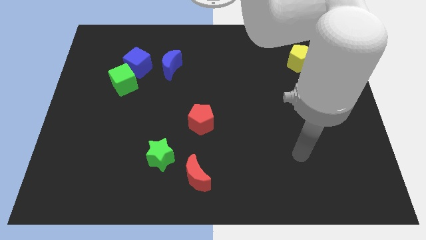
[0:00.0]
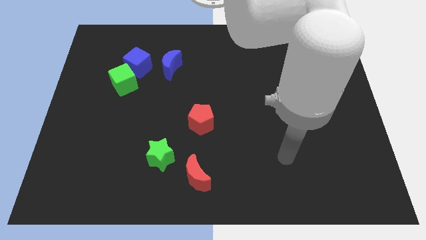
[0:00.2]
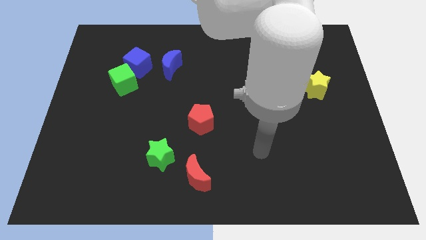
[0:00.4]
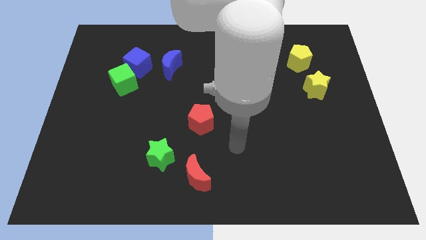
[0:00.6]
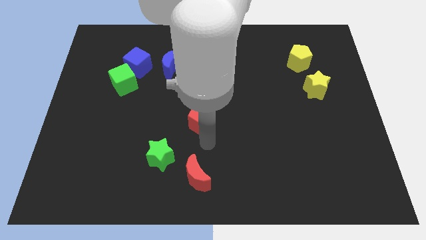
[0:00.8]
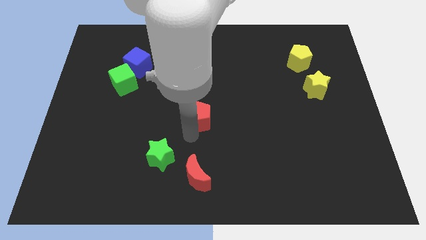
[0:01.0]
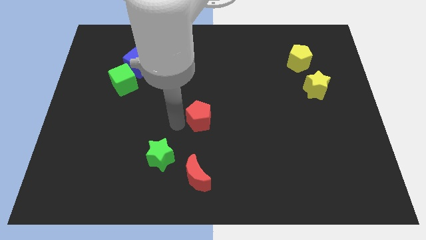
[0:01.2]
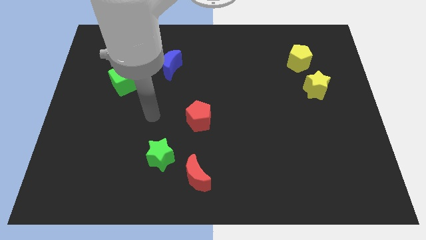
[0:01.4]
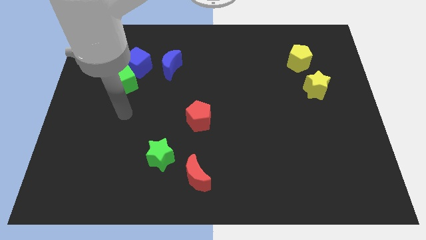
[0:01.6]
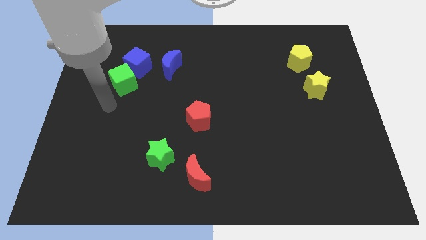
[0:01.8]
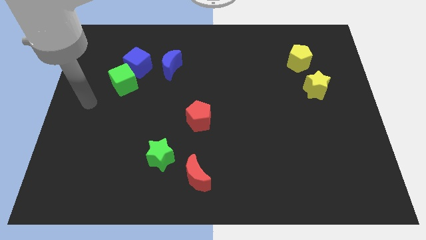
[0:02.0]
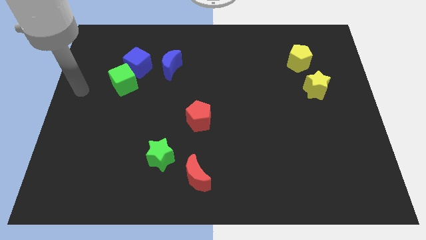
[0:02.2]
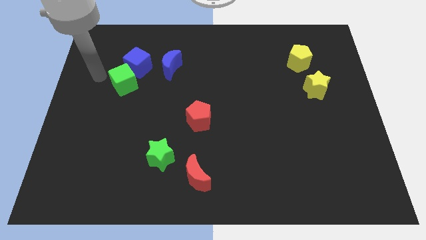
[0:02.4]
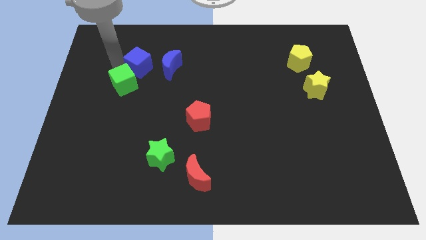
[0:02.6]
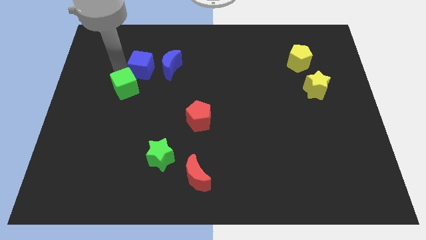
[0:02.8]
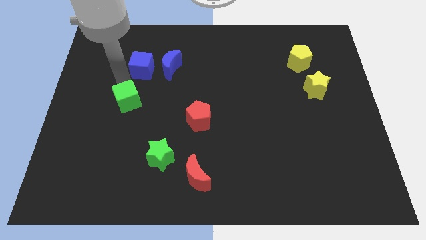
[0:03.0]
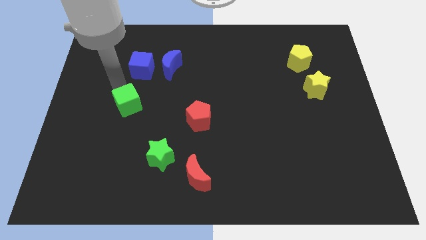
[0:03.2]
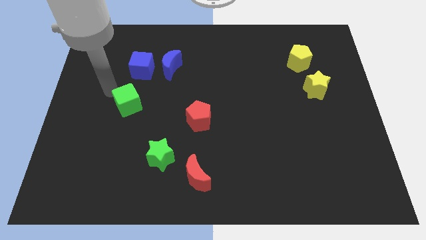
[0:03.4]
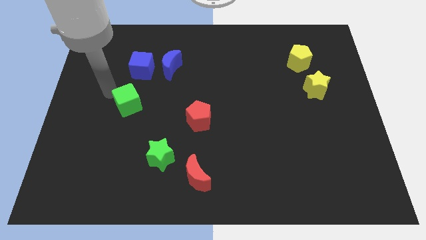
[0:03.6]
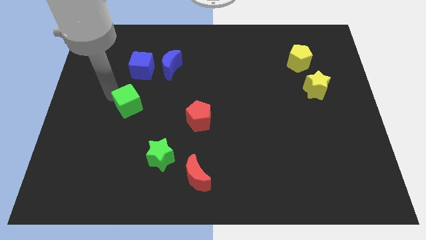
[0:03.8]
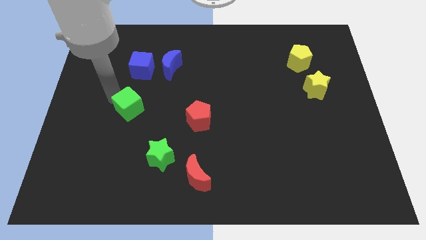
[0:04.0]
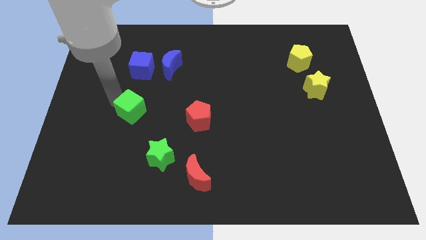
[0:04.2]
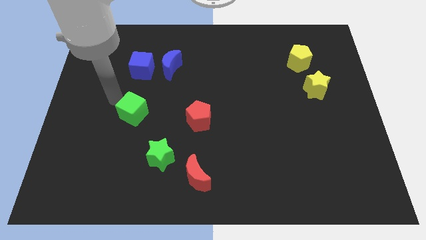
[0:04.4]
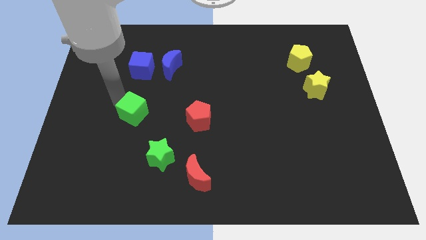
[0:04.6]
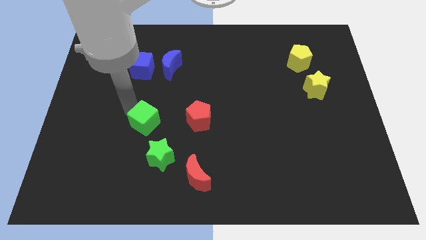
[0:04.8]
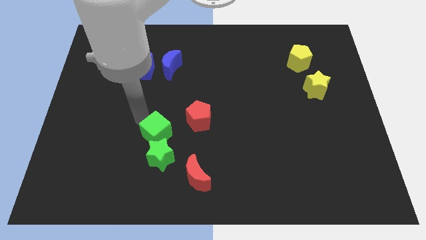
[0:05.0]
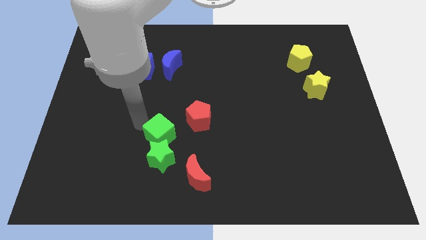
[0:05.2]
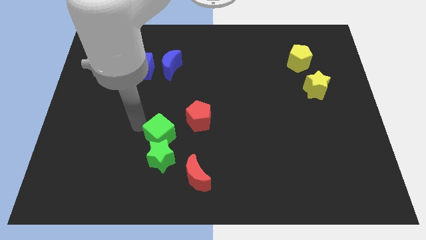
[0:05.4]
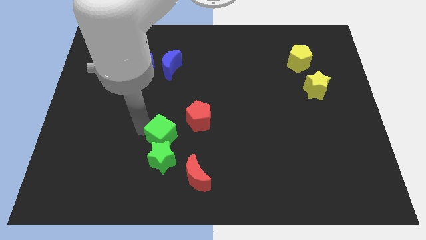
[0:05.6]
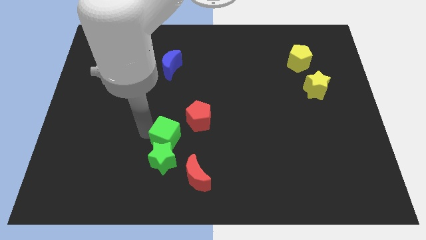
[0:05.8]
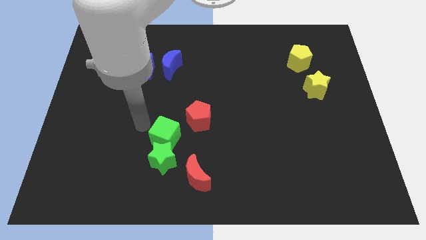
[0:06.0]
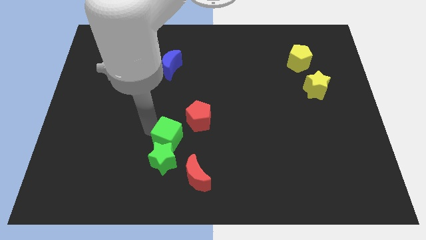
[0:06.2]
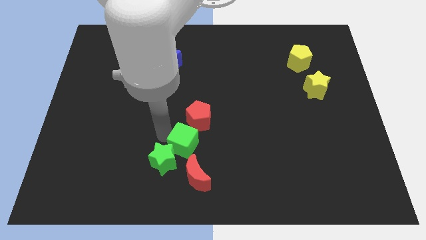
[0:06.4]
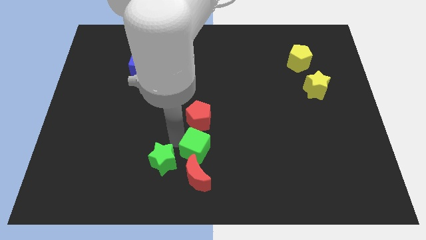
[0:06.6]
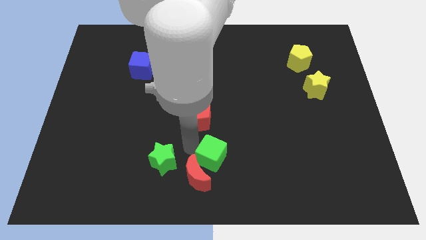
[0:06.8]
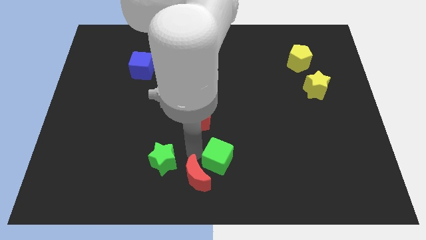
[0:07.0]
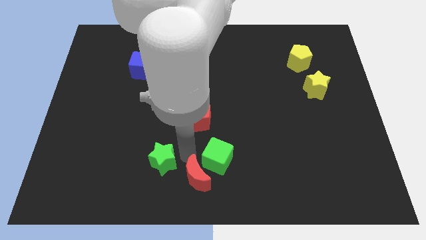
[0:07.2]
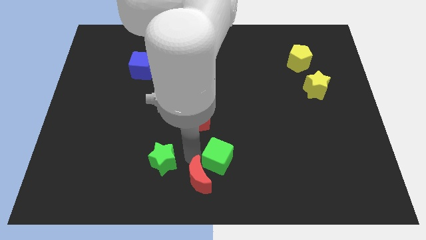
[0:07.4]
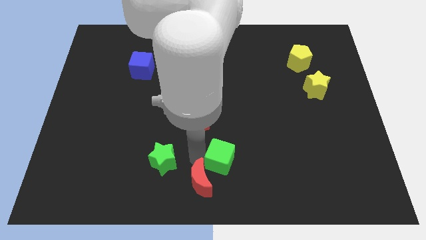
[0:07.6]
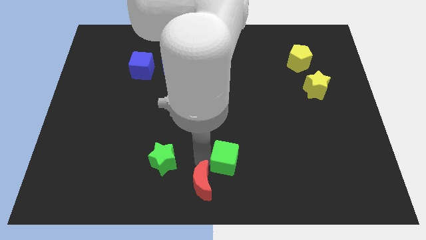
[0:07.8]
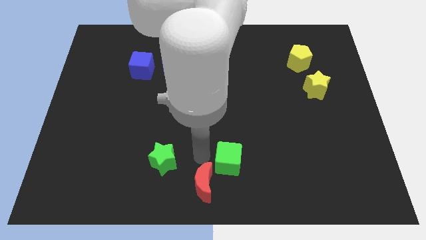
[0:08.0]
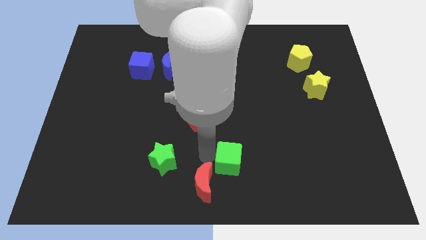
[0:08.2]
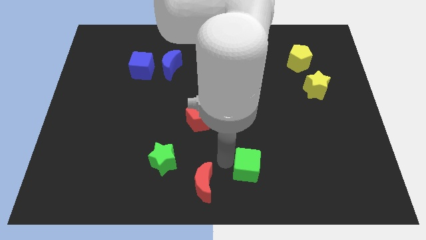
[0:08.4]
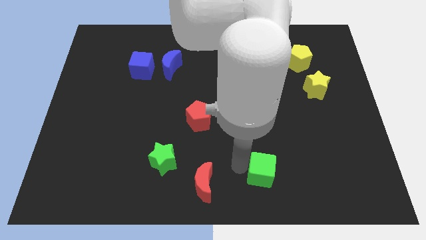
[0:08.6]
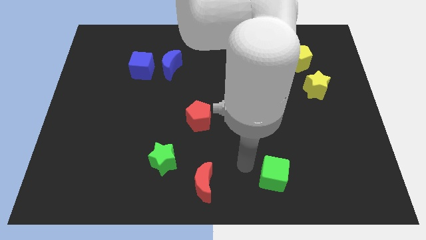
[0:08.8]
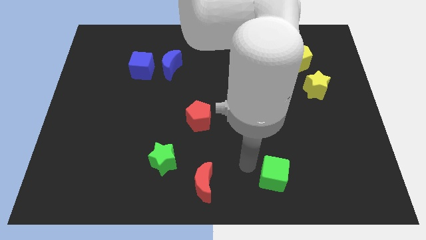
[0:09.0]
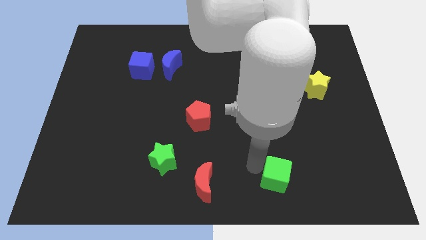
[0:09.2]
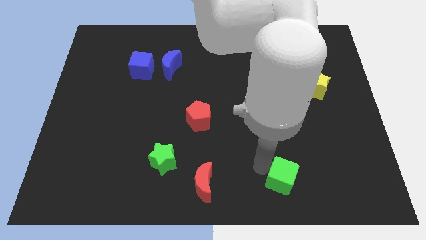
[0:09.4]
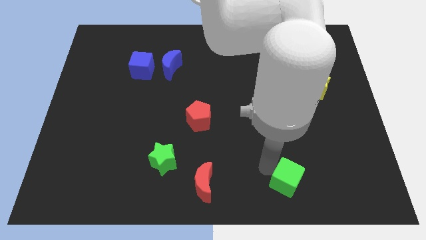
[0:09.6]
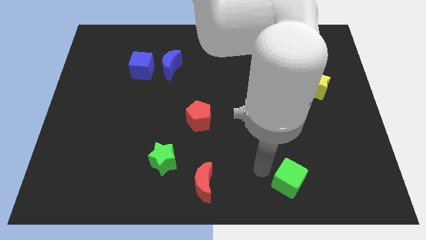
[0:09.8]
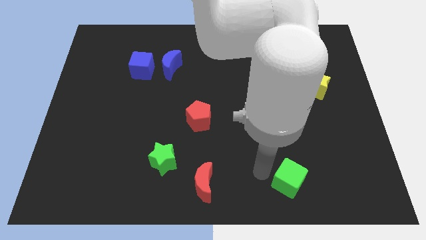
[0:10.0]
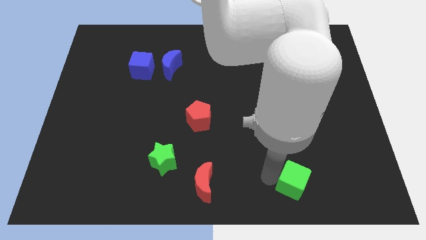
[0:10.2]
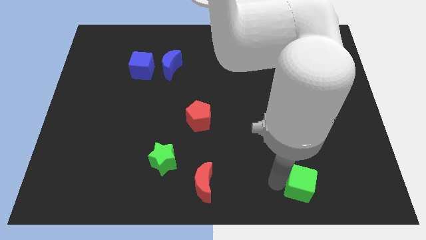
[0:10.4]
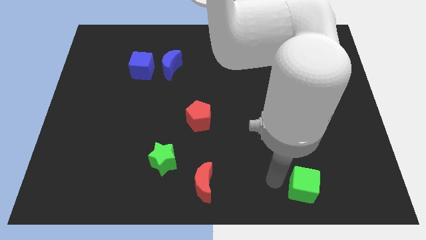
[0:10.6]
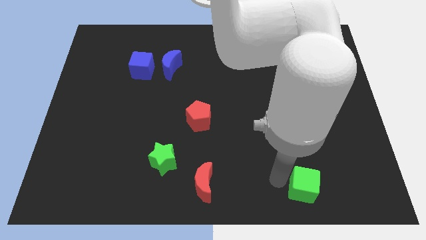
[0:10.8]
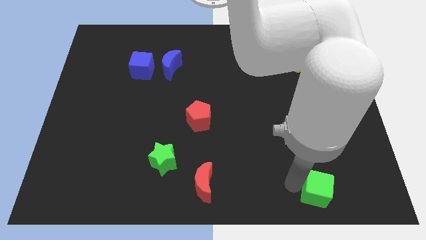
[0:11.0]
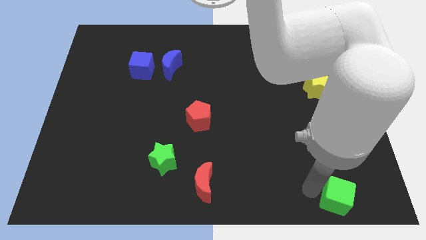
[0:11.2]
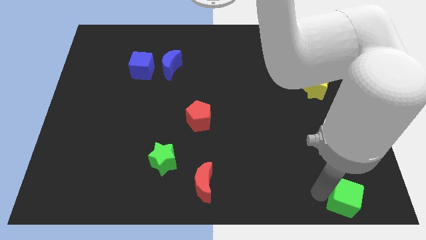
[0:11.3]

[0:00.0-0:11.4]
push the green cube to the lower right corner

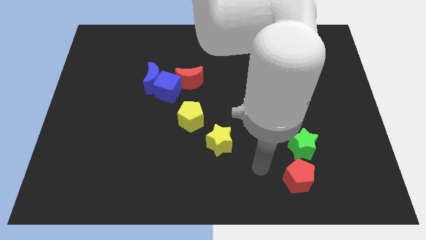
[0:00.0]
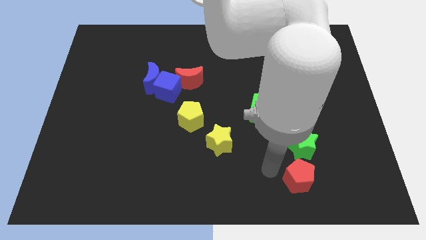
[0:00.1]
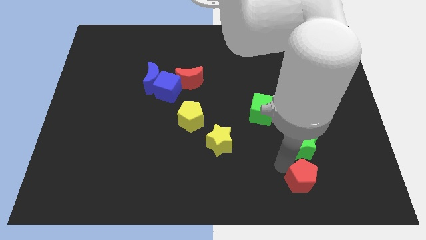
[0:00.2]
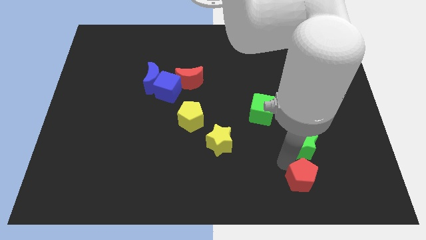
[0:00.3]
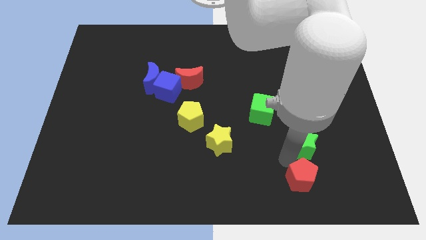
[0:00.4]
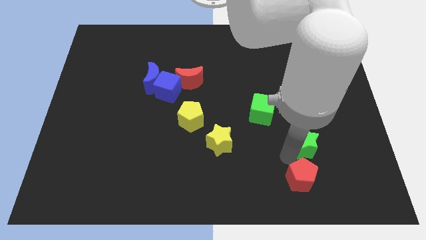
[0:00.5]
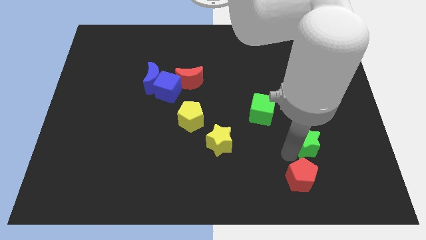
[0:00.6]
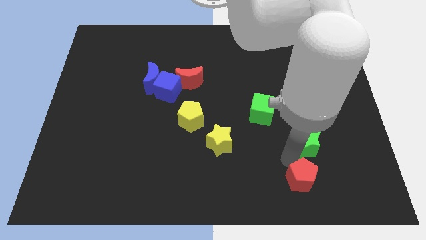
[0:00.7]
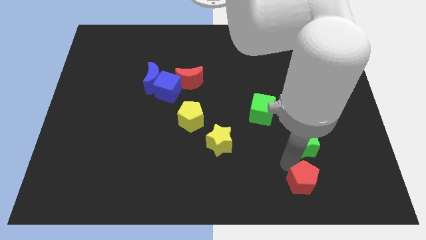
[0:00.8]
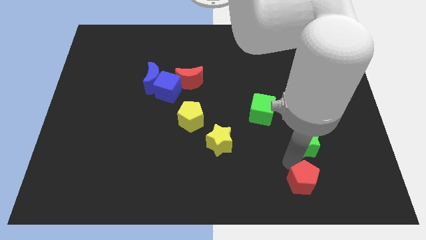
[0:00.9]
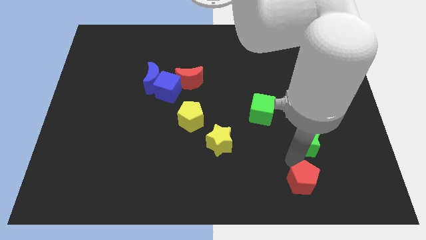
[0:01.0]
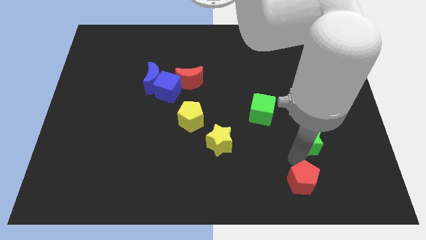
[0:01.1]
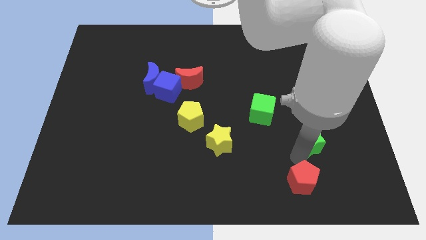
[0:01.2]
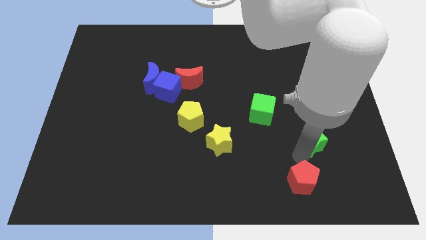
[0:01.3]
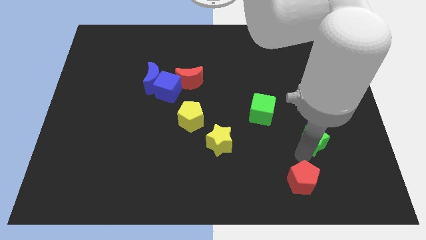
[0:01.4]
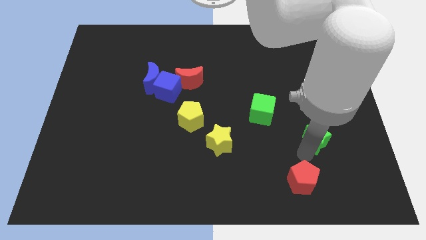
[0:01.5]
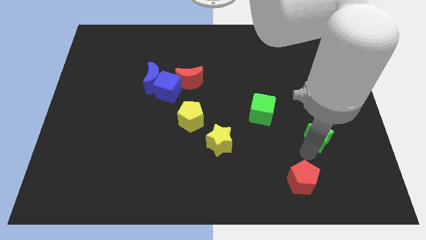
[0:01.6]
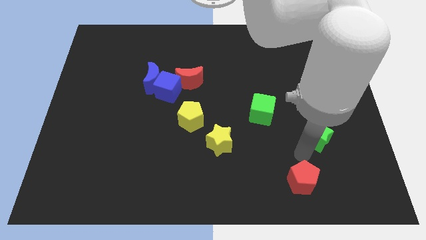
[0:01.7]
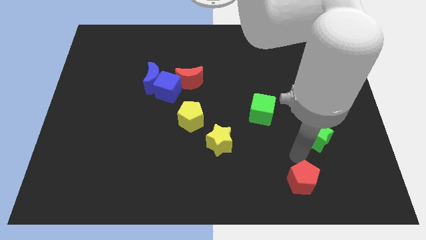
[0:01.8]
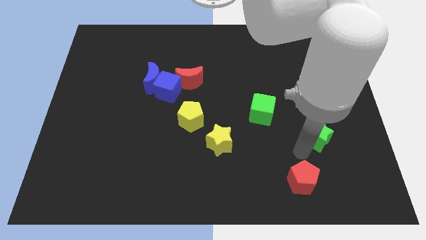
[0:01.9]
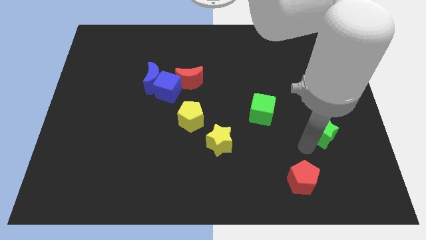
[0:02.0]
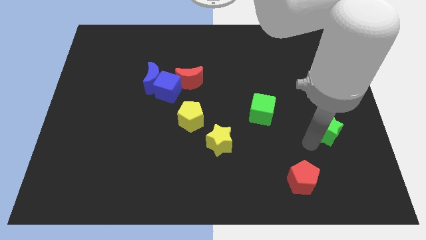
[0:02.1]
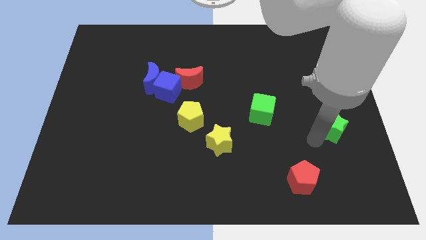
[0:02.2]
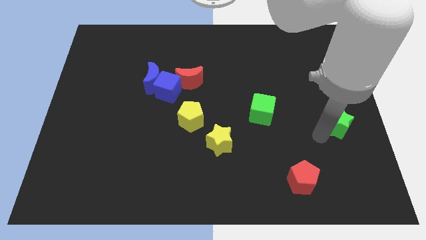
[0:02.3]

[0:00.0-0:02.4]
slide the green star to the right side
